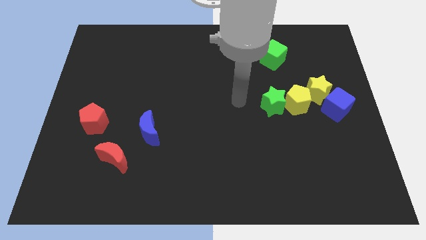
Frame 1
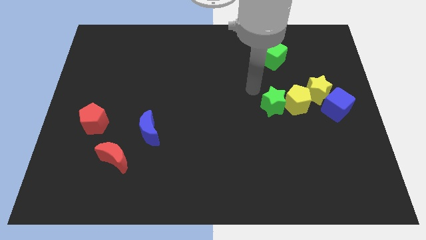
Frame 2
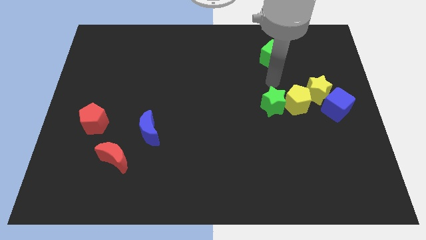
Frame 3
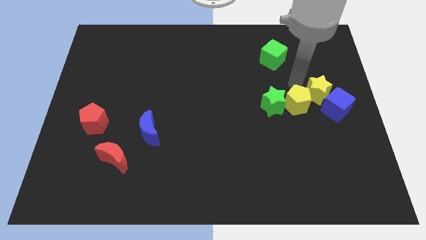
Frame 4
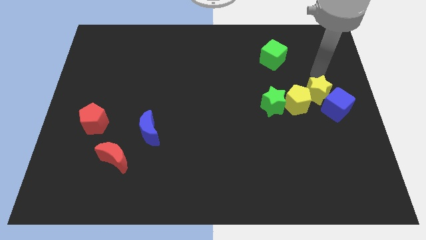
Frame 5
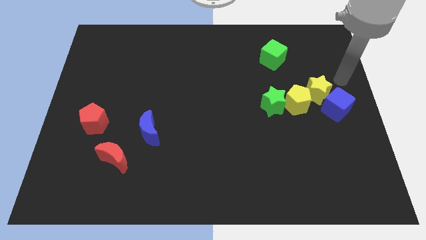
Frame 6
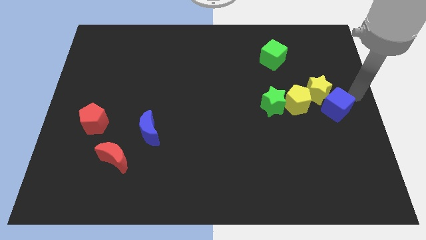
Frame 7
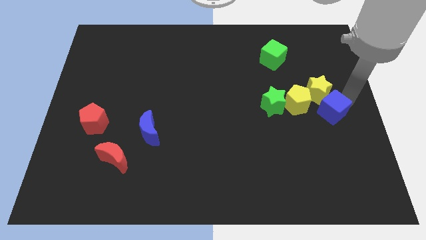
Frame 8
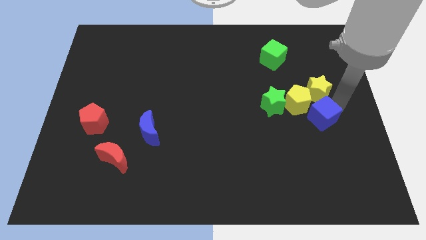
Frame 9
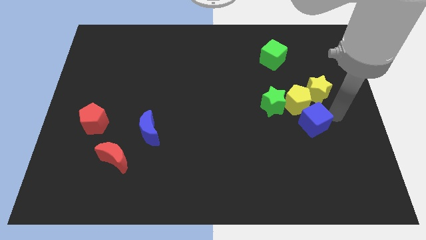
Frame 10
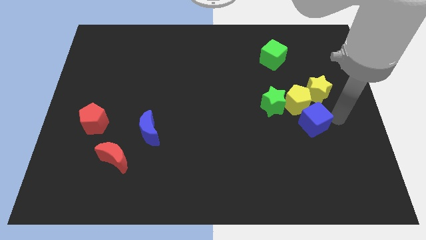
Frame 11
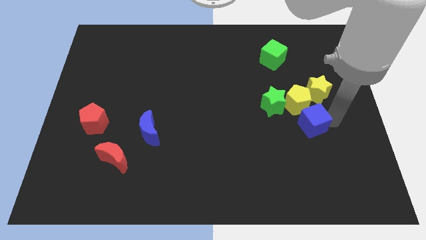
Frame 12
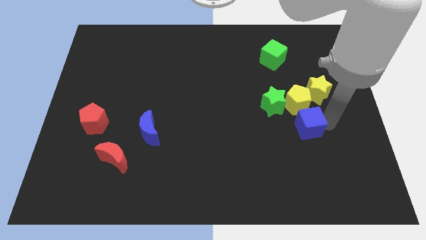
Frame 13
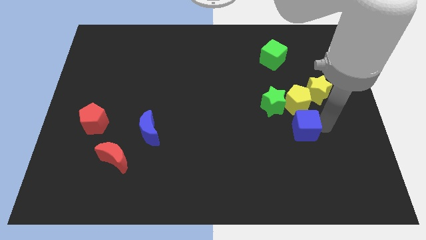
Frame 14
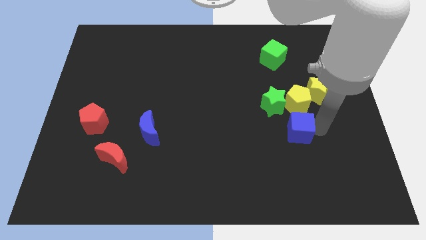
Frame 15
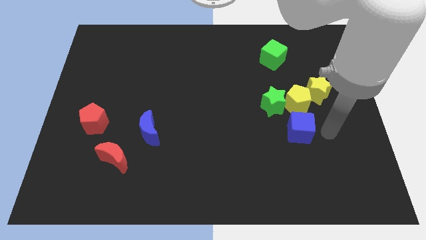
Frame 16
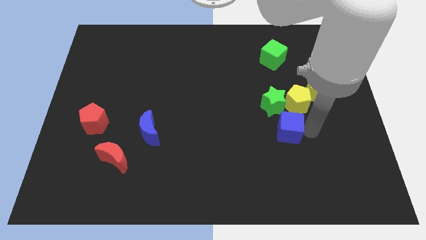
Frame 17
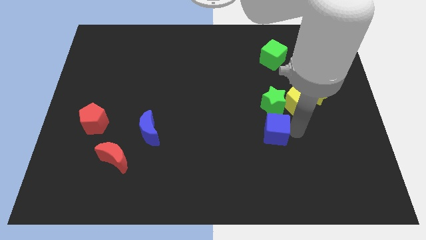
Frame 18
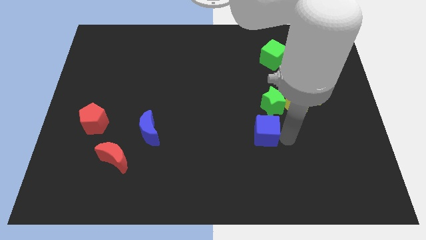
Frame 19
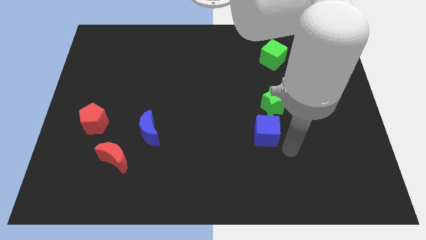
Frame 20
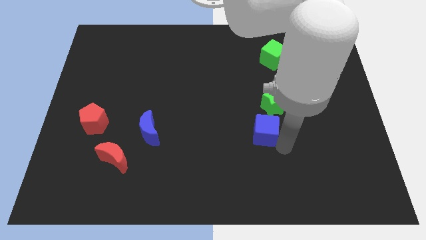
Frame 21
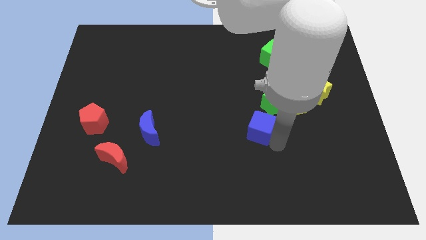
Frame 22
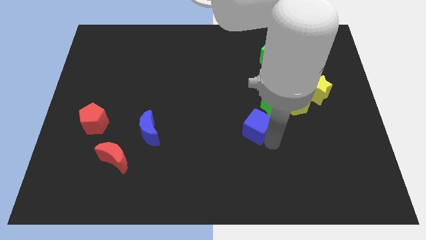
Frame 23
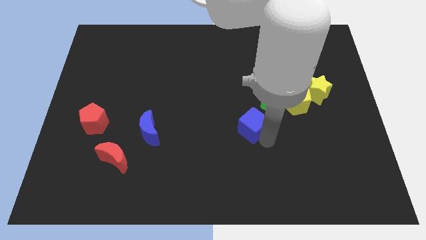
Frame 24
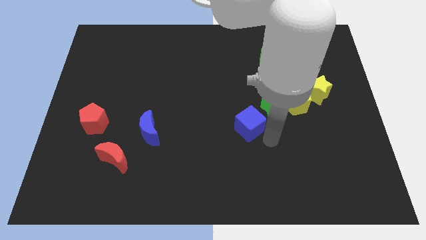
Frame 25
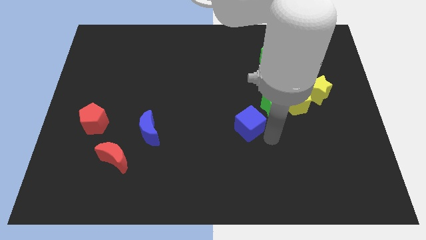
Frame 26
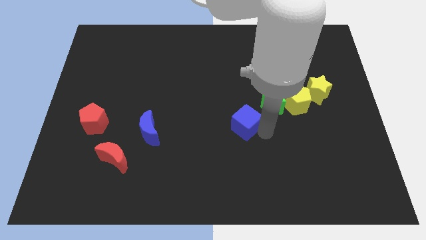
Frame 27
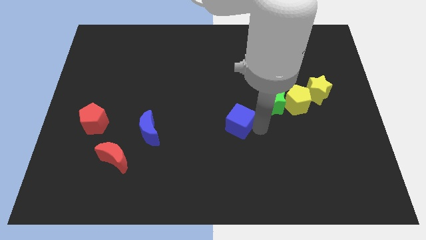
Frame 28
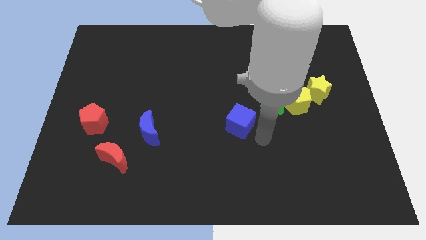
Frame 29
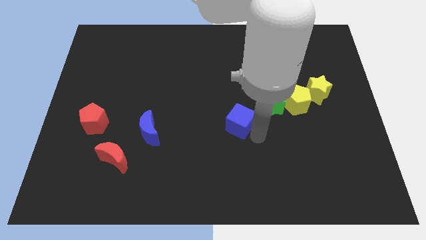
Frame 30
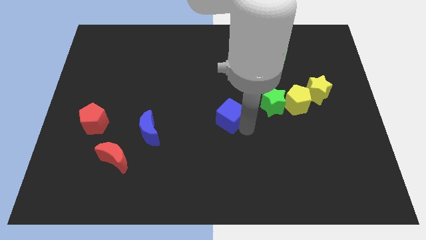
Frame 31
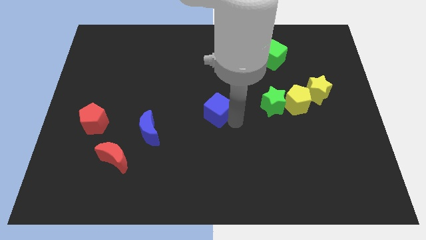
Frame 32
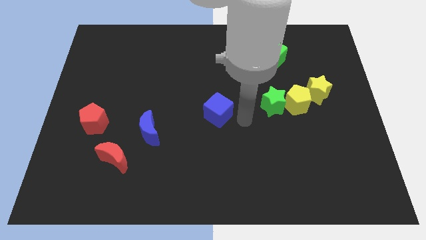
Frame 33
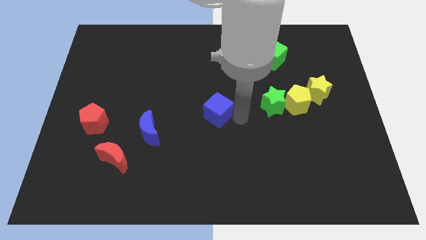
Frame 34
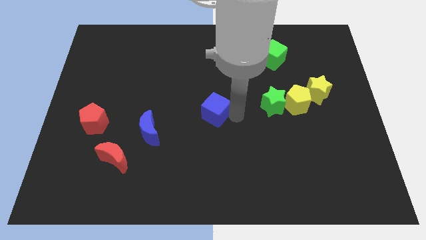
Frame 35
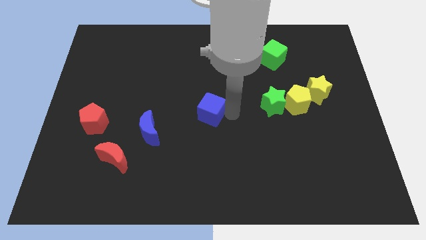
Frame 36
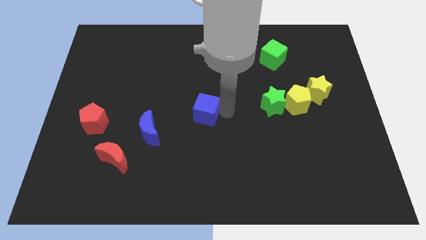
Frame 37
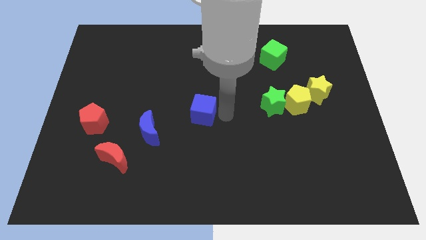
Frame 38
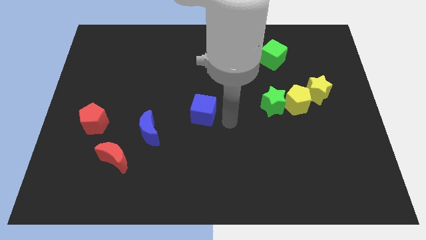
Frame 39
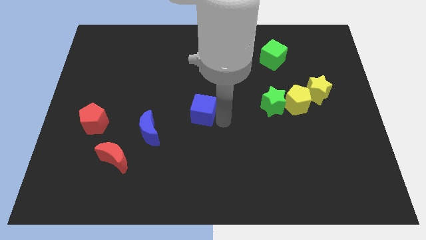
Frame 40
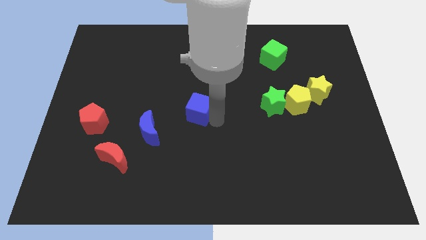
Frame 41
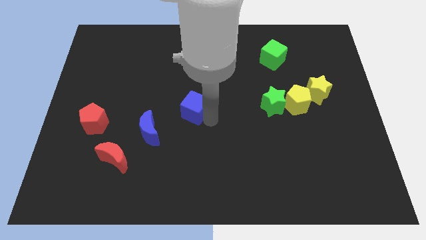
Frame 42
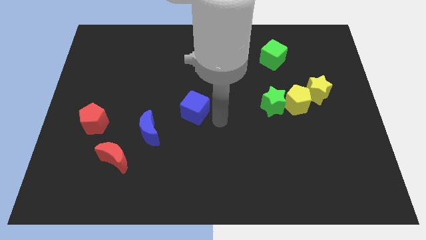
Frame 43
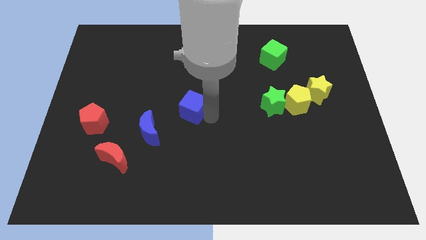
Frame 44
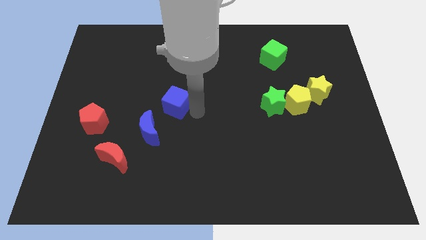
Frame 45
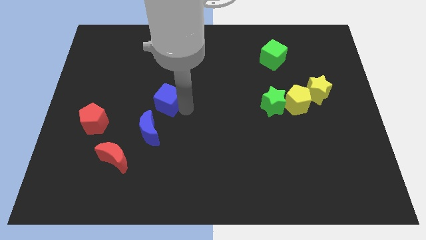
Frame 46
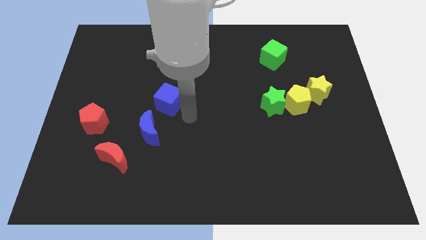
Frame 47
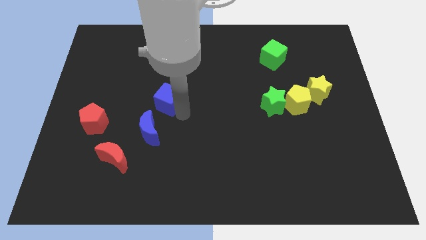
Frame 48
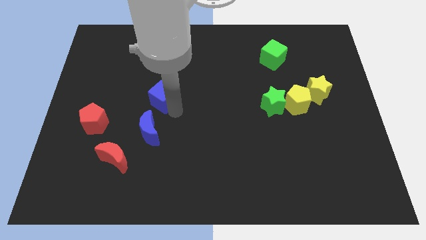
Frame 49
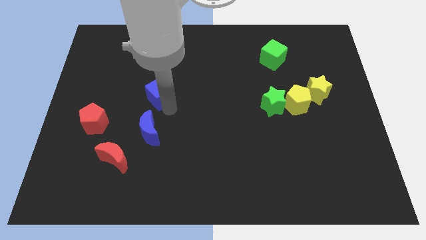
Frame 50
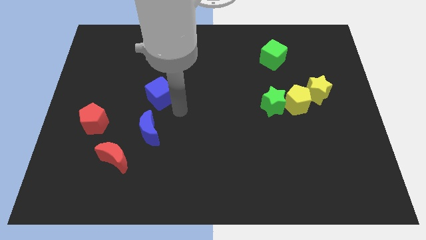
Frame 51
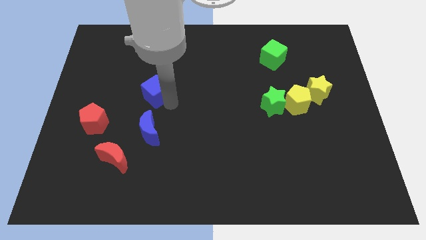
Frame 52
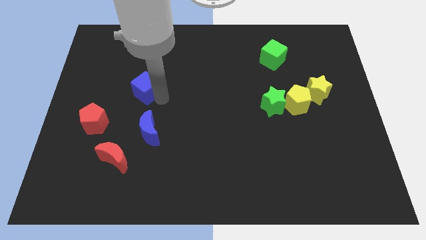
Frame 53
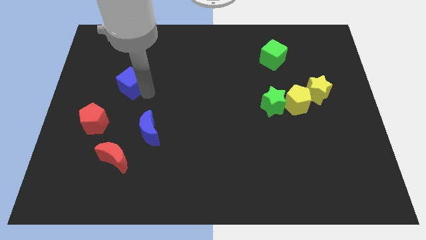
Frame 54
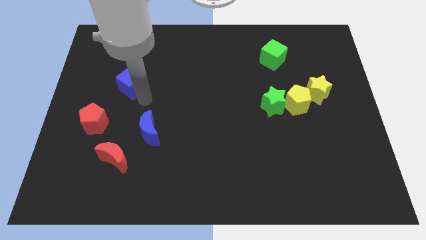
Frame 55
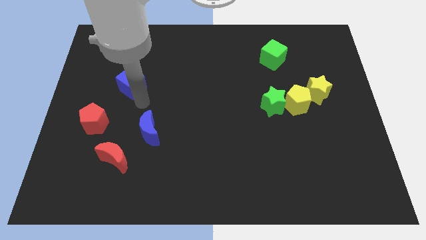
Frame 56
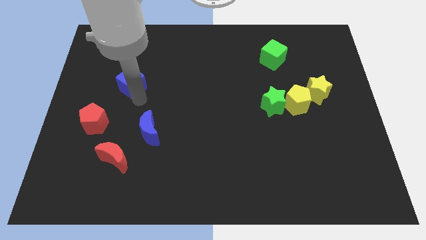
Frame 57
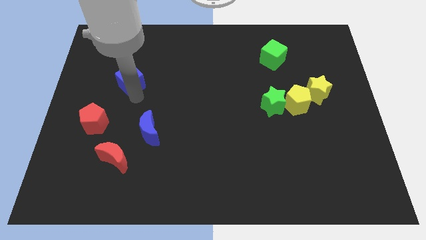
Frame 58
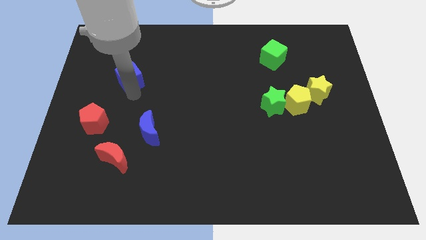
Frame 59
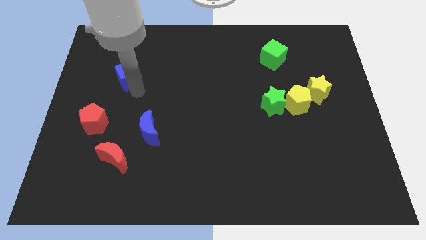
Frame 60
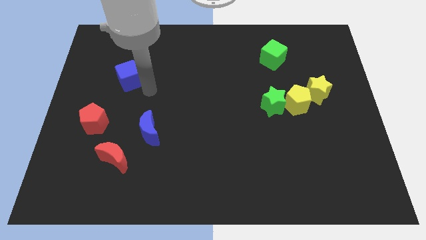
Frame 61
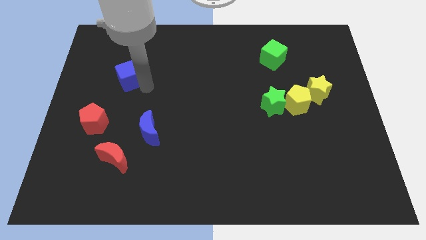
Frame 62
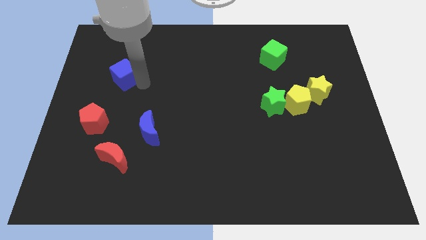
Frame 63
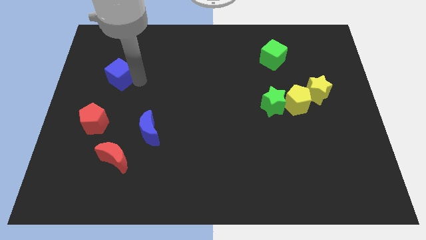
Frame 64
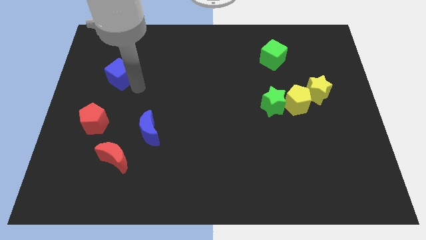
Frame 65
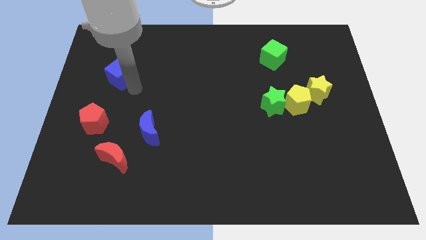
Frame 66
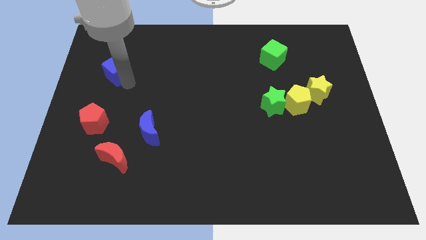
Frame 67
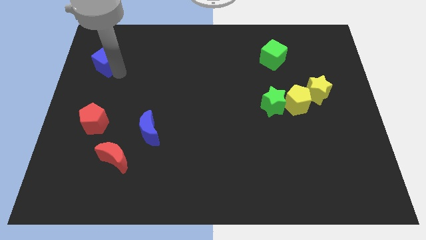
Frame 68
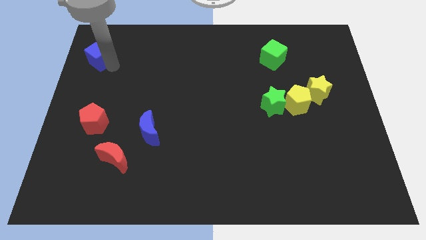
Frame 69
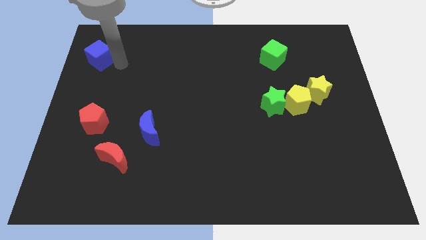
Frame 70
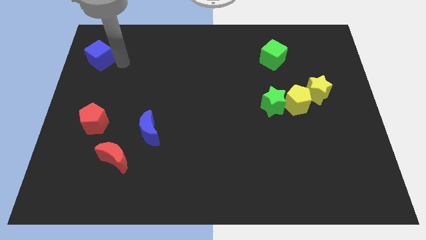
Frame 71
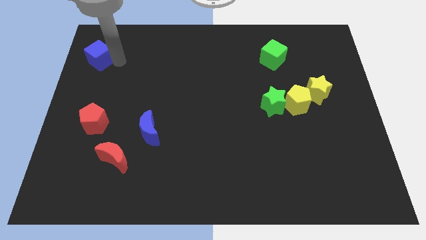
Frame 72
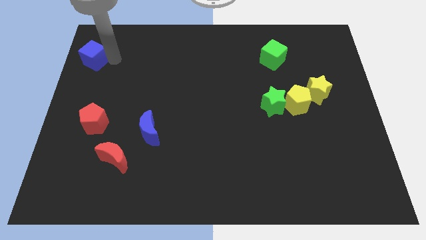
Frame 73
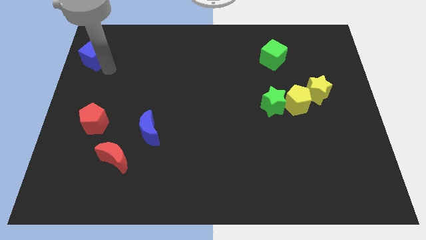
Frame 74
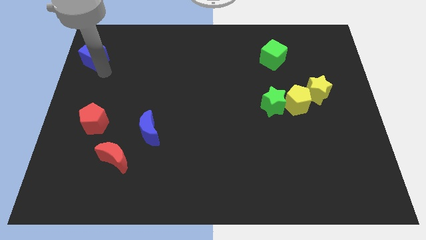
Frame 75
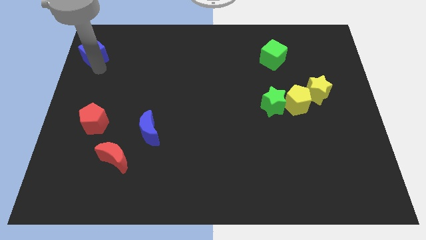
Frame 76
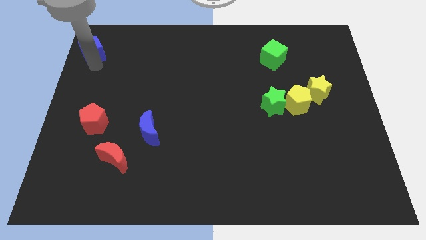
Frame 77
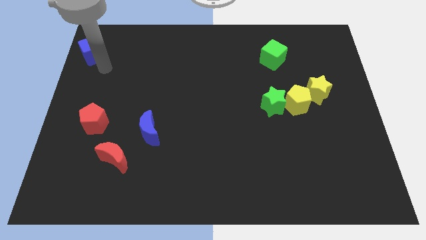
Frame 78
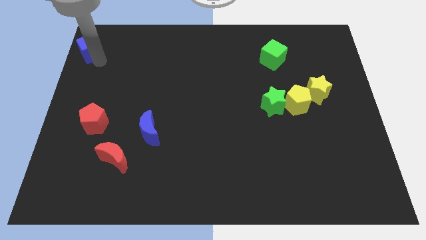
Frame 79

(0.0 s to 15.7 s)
move the blue cube to the top left corner
